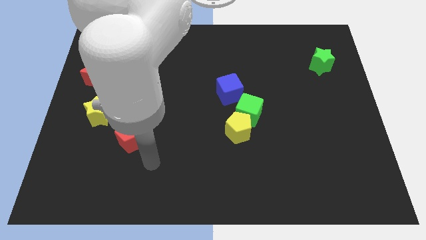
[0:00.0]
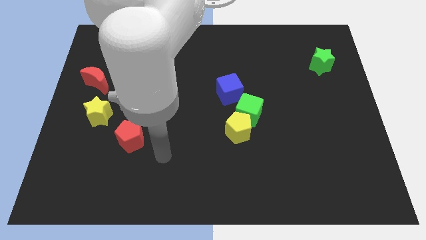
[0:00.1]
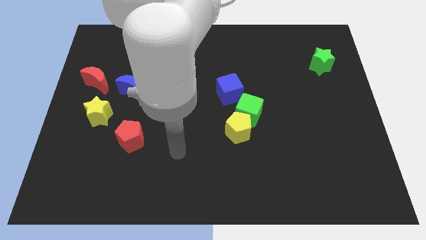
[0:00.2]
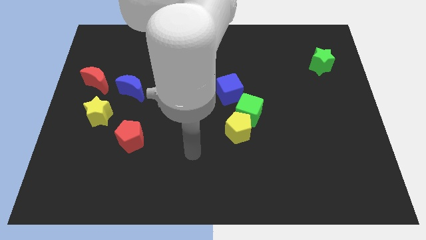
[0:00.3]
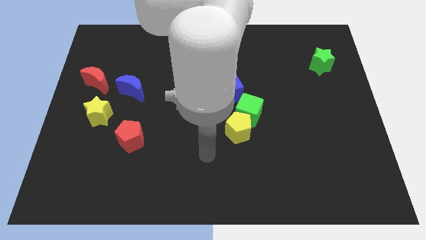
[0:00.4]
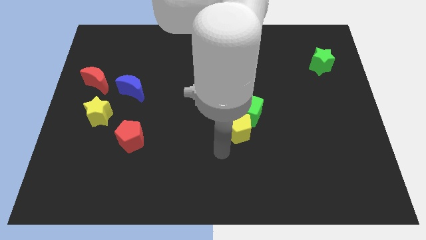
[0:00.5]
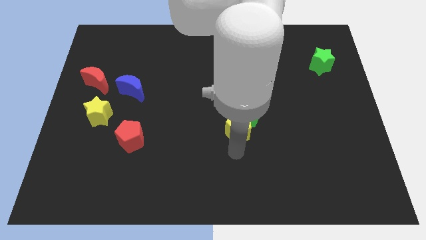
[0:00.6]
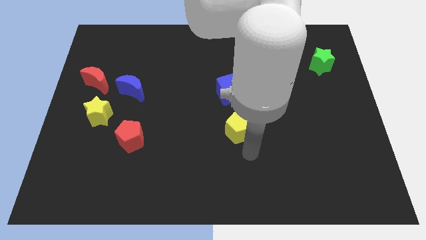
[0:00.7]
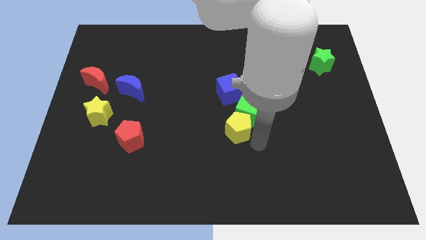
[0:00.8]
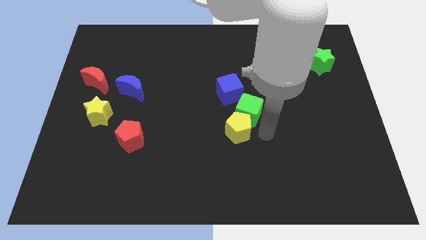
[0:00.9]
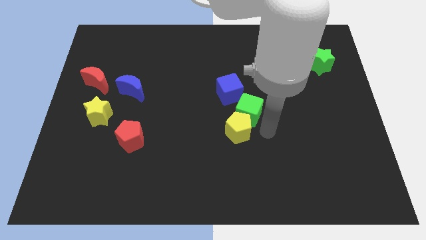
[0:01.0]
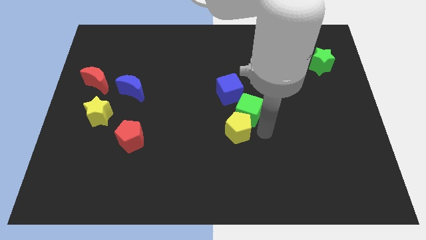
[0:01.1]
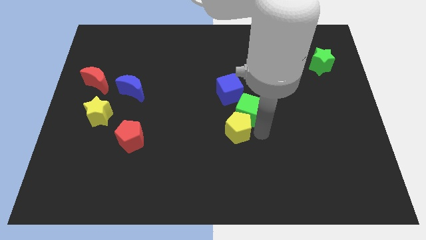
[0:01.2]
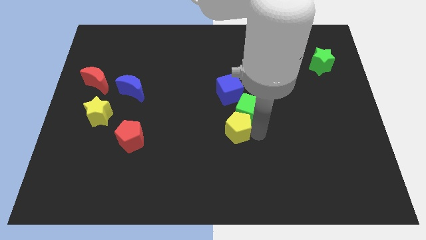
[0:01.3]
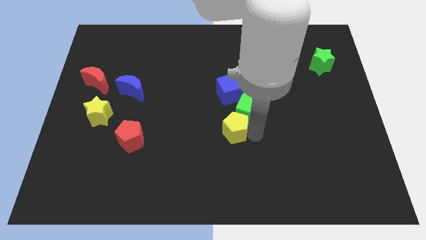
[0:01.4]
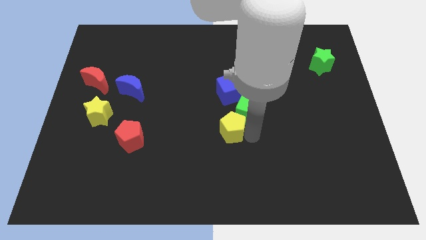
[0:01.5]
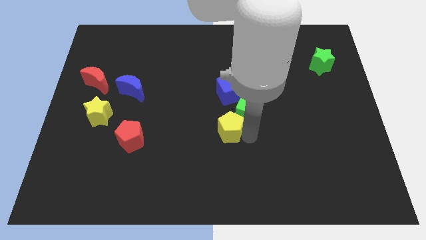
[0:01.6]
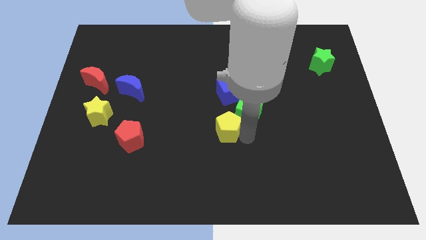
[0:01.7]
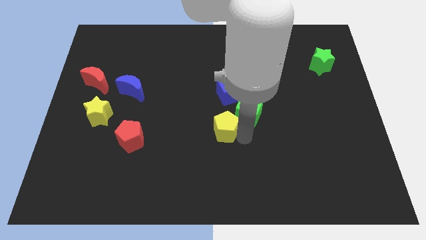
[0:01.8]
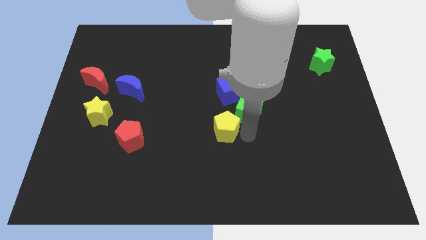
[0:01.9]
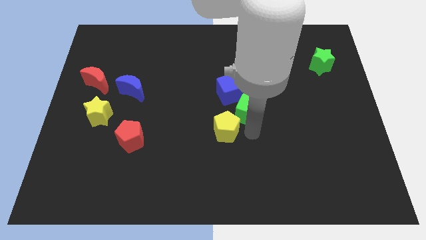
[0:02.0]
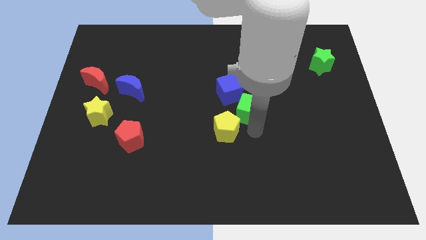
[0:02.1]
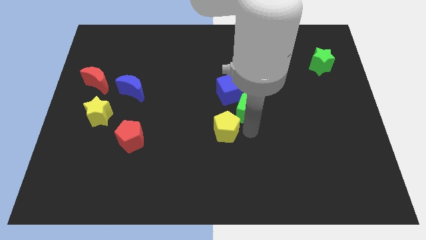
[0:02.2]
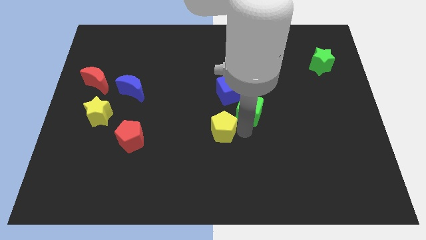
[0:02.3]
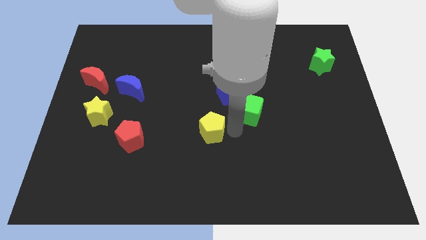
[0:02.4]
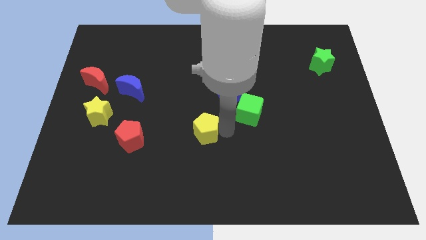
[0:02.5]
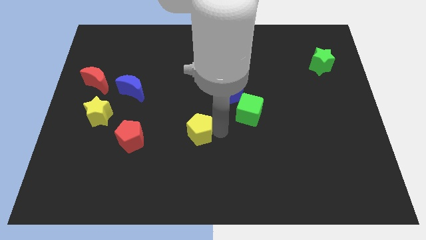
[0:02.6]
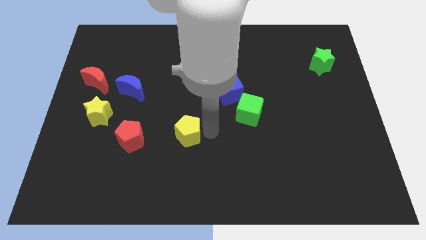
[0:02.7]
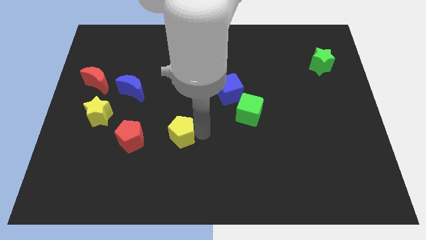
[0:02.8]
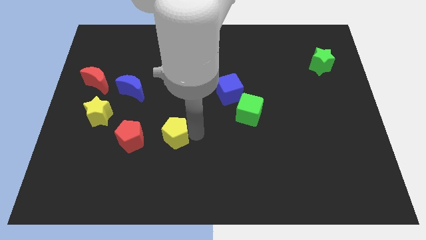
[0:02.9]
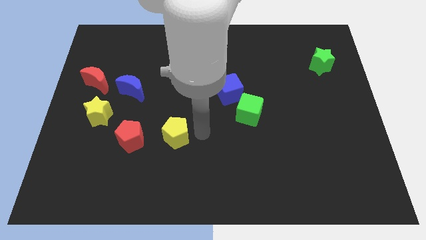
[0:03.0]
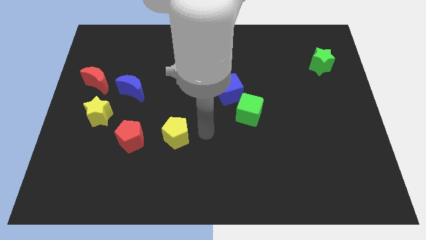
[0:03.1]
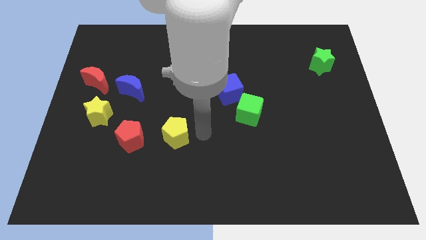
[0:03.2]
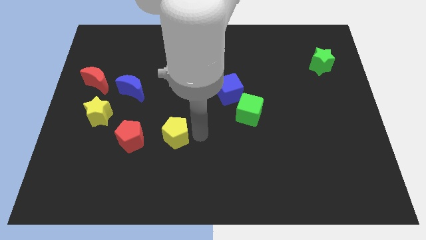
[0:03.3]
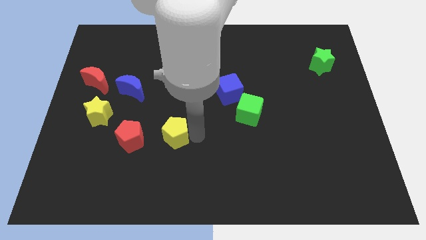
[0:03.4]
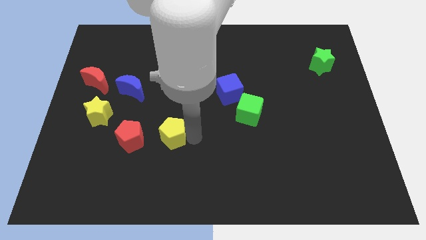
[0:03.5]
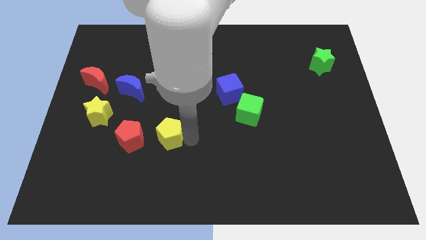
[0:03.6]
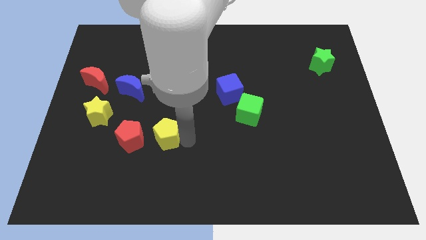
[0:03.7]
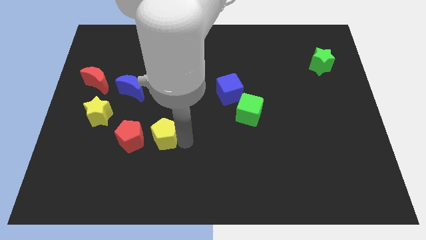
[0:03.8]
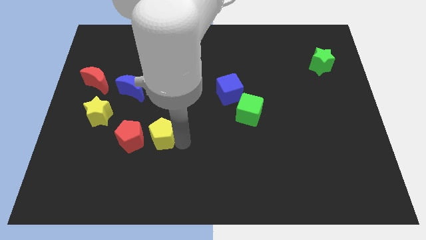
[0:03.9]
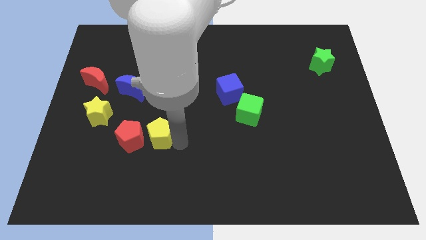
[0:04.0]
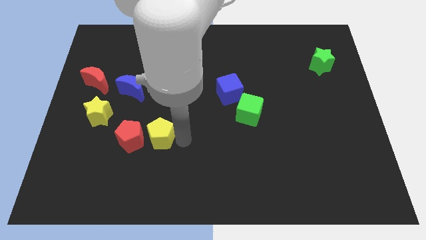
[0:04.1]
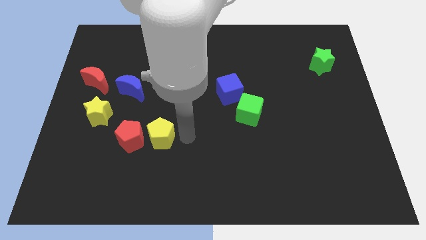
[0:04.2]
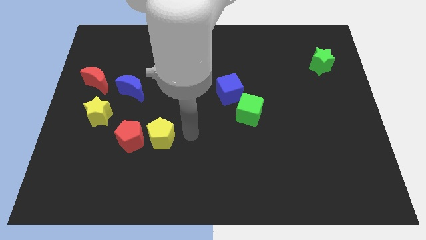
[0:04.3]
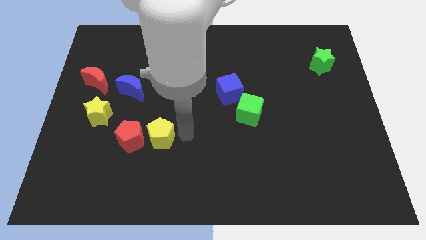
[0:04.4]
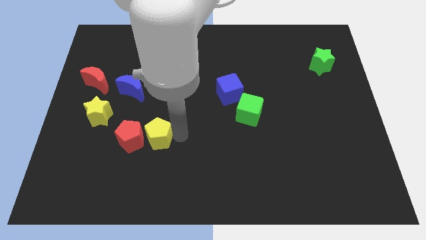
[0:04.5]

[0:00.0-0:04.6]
push the yellow pentagon towards the red pentagon

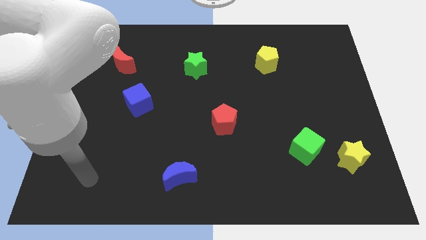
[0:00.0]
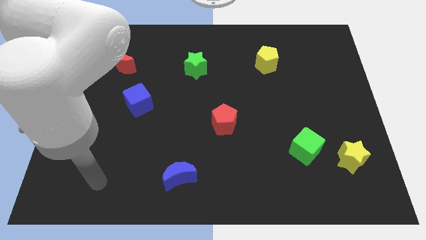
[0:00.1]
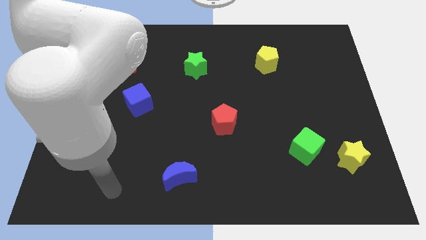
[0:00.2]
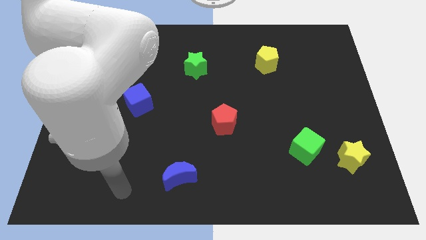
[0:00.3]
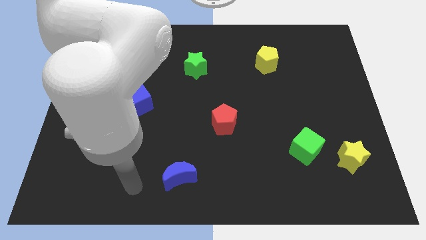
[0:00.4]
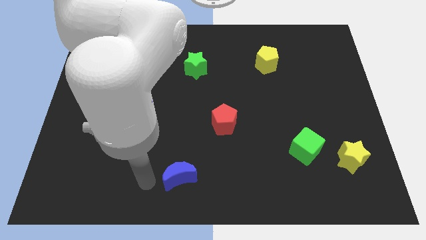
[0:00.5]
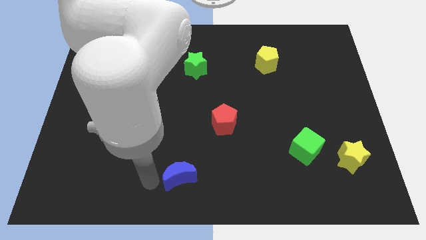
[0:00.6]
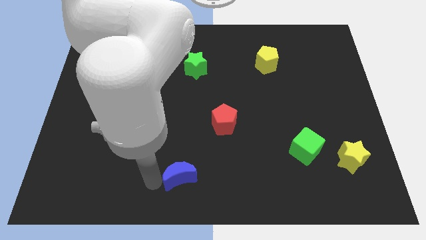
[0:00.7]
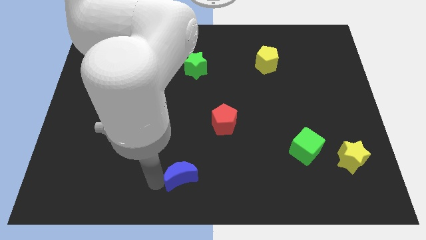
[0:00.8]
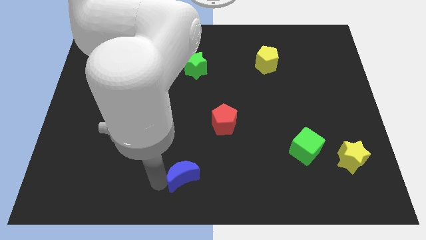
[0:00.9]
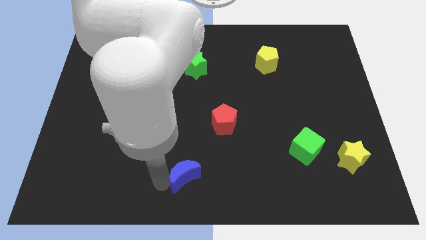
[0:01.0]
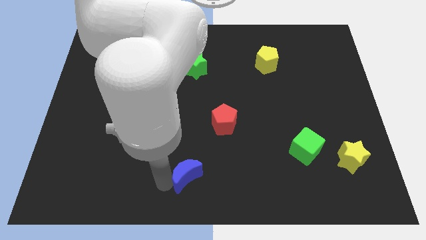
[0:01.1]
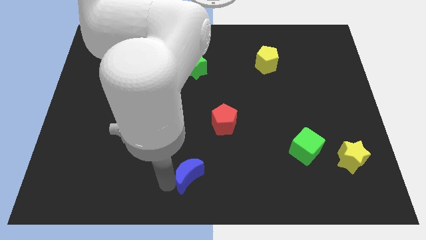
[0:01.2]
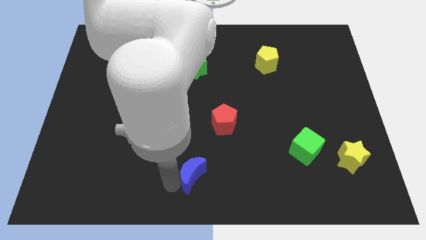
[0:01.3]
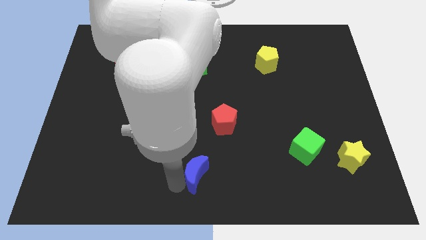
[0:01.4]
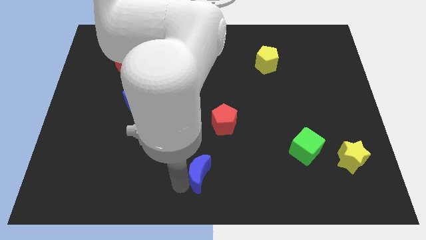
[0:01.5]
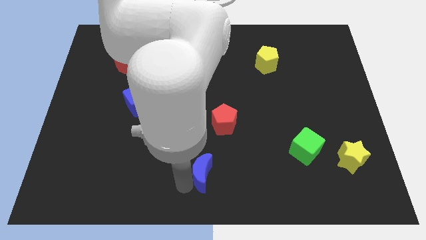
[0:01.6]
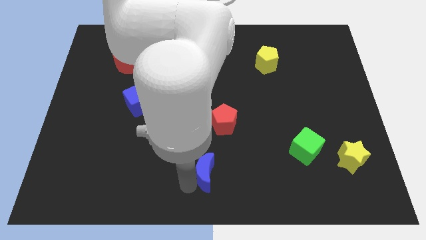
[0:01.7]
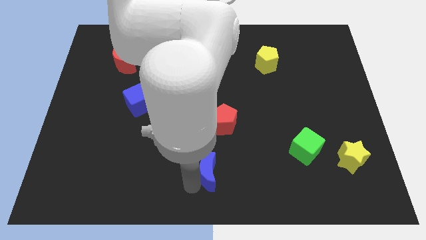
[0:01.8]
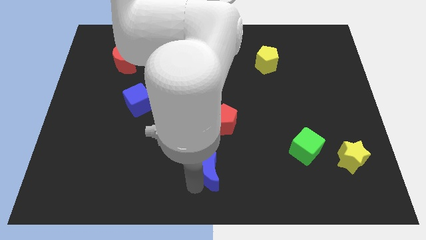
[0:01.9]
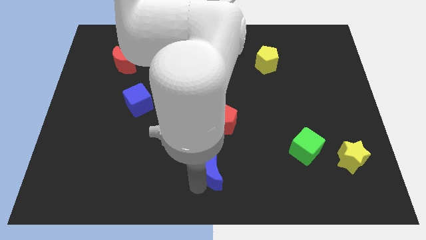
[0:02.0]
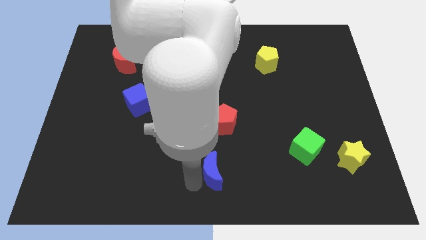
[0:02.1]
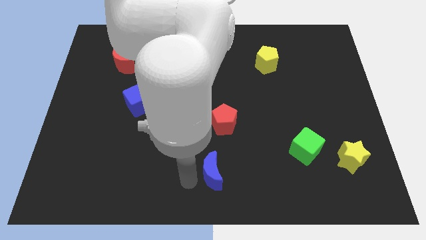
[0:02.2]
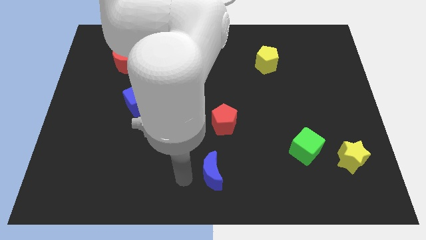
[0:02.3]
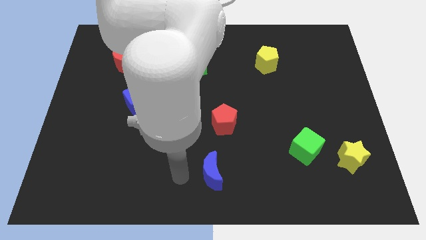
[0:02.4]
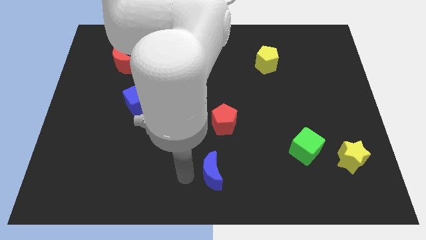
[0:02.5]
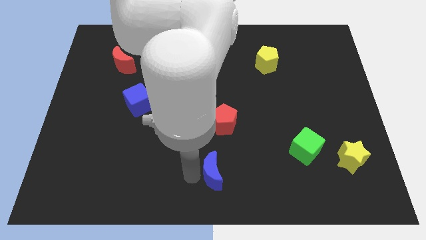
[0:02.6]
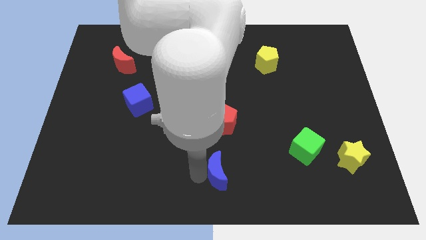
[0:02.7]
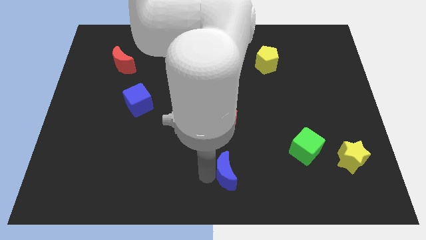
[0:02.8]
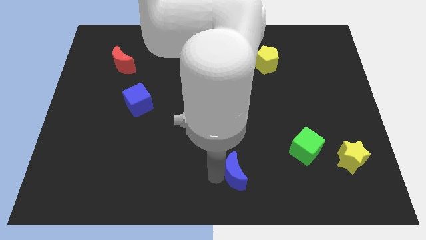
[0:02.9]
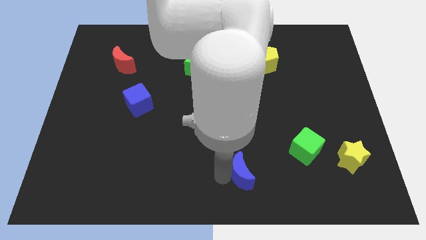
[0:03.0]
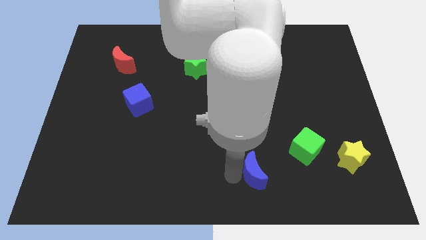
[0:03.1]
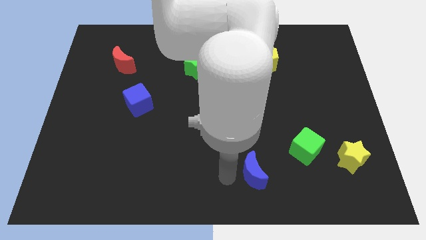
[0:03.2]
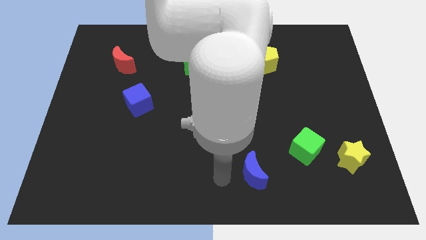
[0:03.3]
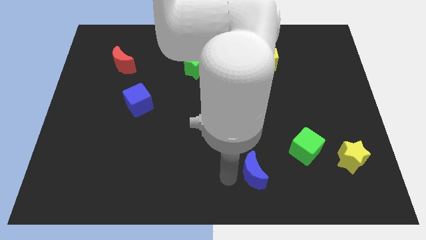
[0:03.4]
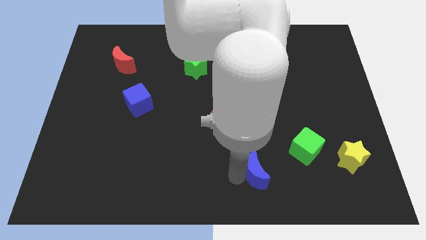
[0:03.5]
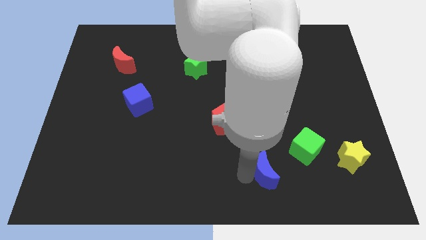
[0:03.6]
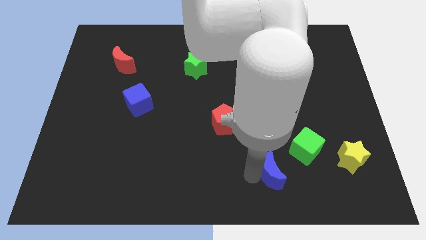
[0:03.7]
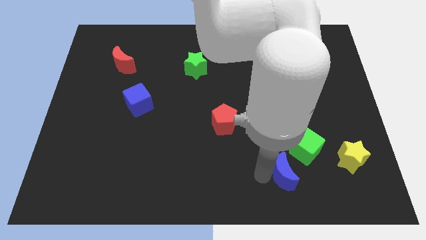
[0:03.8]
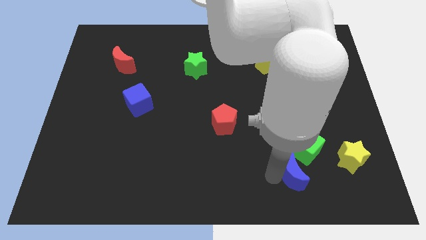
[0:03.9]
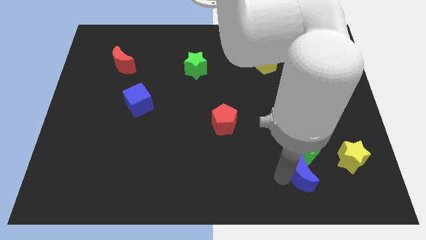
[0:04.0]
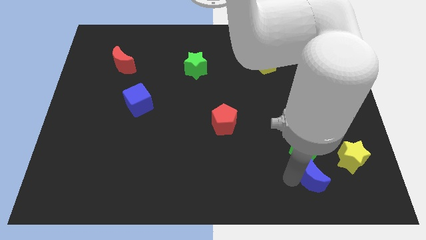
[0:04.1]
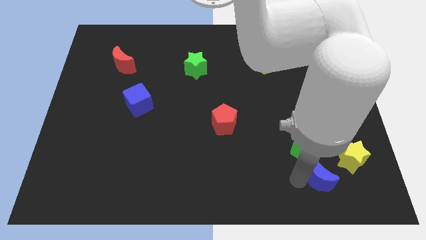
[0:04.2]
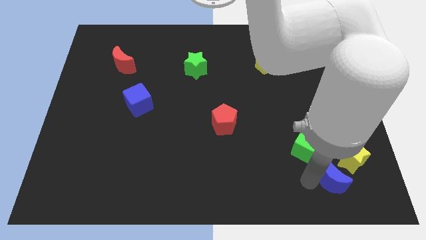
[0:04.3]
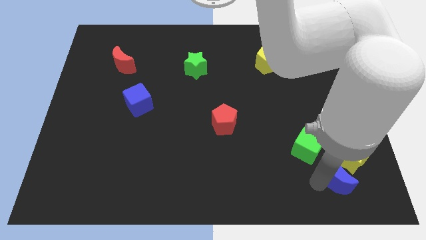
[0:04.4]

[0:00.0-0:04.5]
slide the blue moon close to the yellow star
